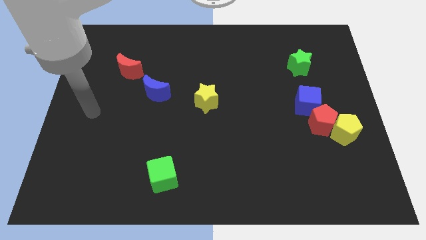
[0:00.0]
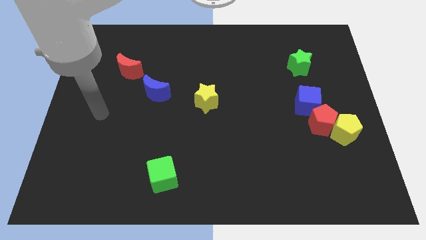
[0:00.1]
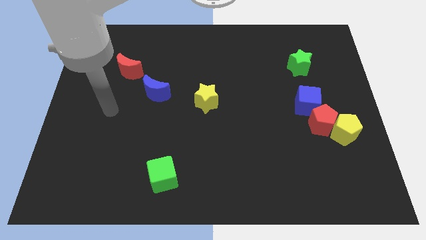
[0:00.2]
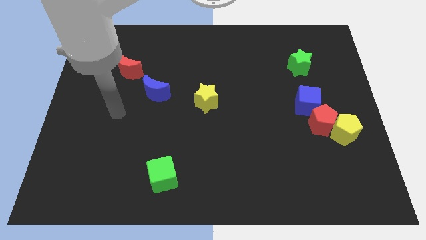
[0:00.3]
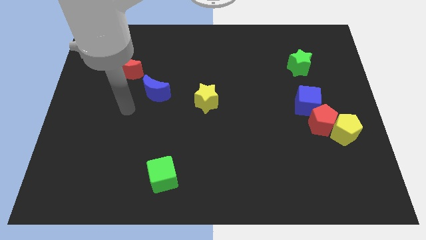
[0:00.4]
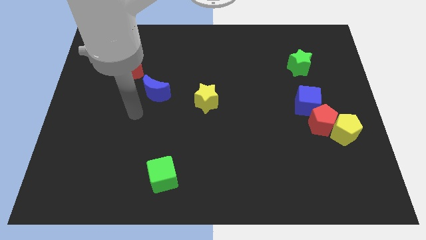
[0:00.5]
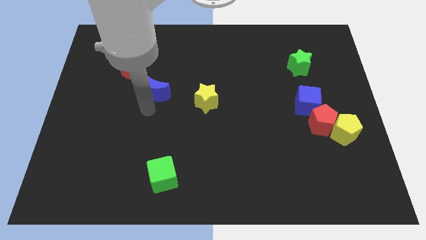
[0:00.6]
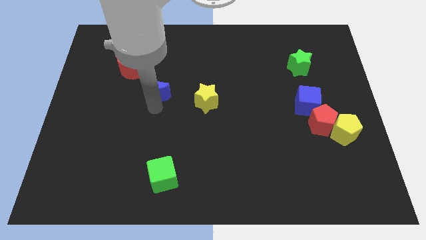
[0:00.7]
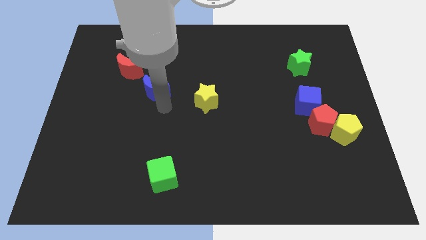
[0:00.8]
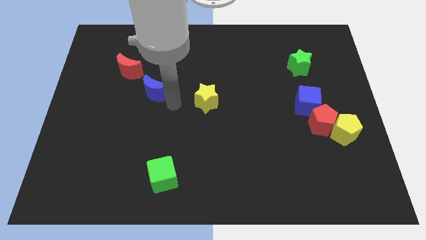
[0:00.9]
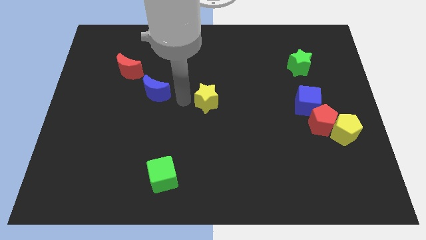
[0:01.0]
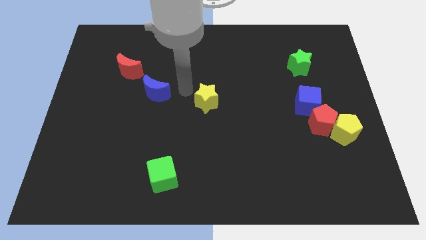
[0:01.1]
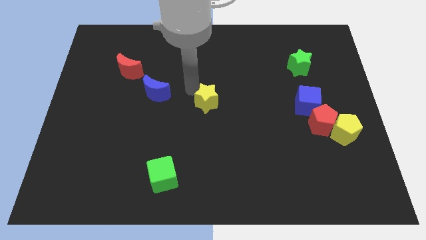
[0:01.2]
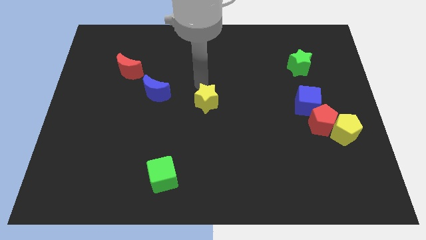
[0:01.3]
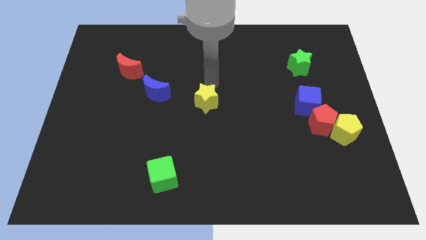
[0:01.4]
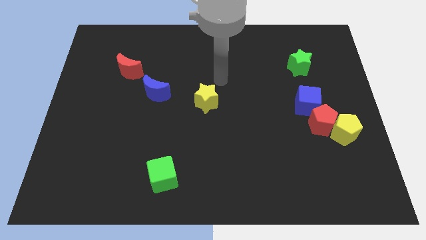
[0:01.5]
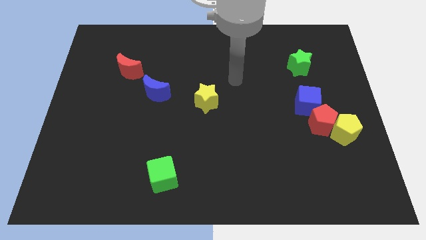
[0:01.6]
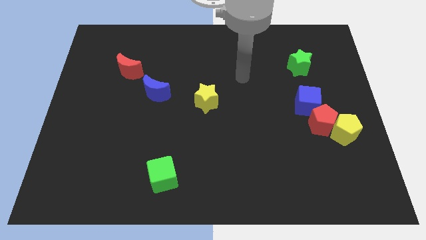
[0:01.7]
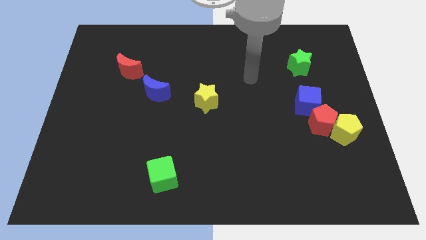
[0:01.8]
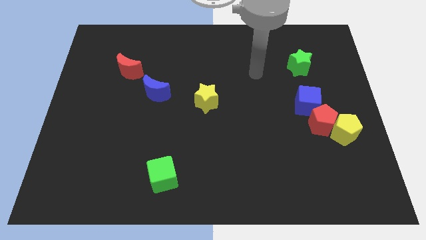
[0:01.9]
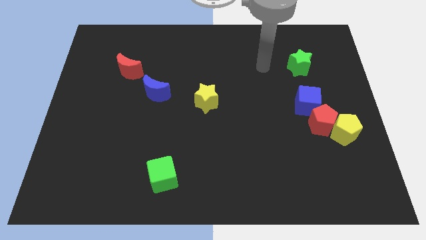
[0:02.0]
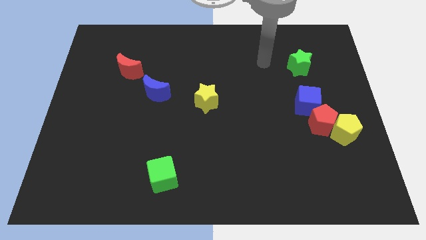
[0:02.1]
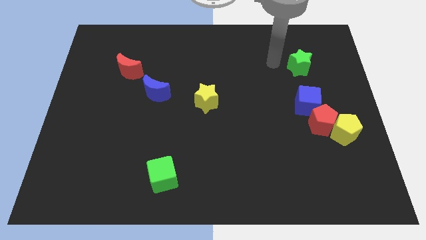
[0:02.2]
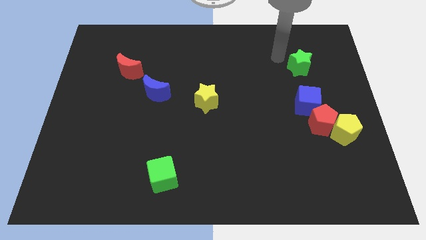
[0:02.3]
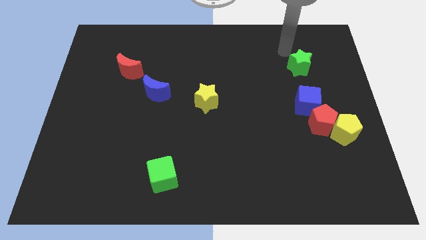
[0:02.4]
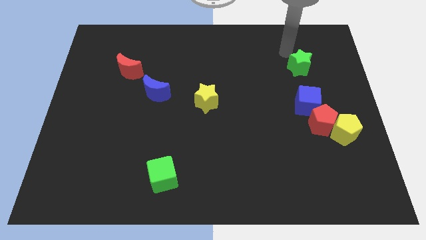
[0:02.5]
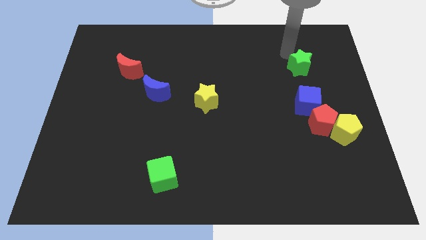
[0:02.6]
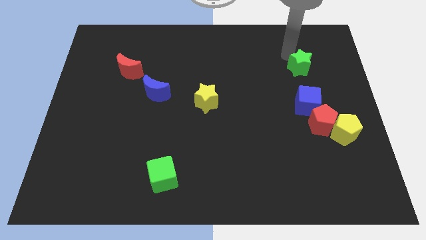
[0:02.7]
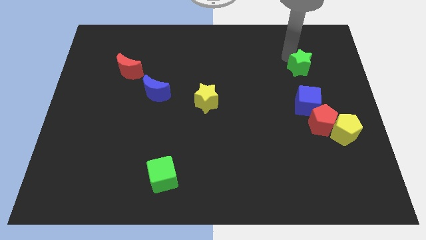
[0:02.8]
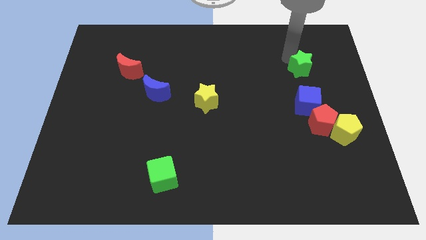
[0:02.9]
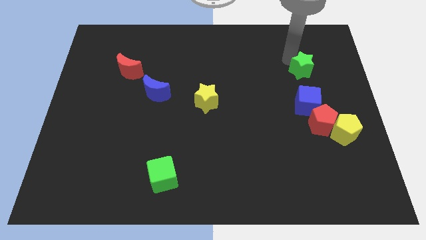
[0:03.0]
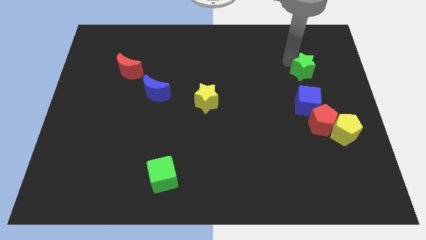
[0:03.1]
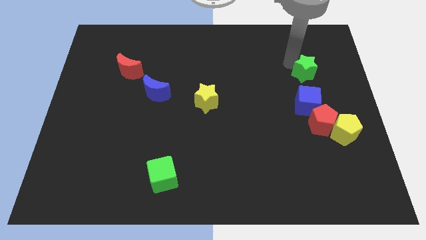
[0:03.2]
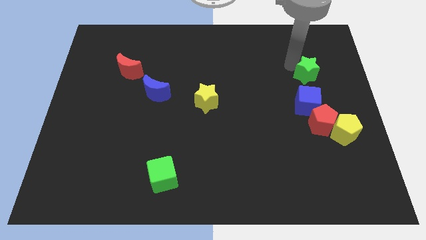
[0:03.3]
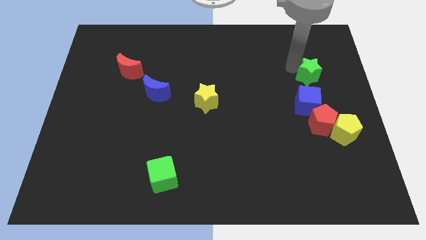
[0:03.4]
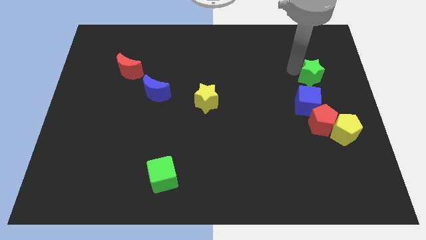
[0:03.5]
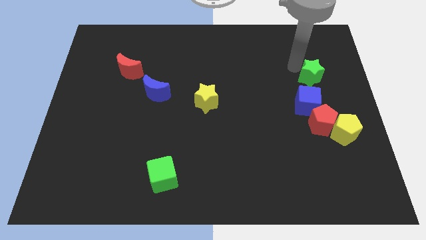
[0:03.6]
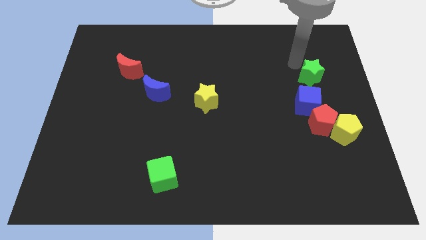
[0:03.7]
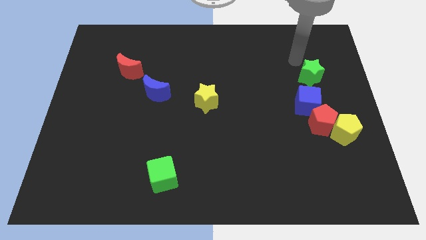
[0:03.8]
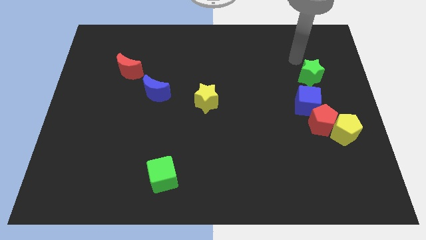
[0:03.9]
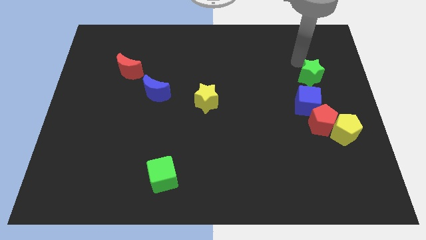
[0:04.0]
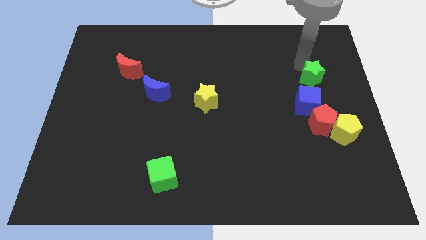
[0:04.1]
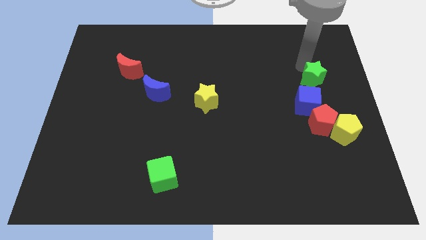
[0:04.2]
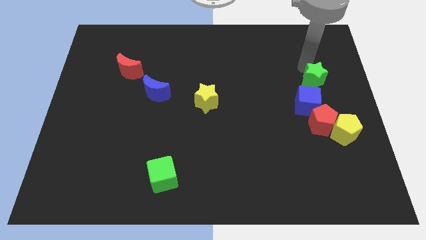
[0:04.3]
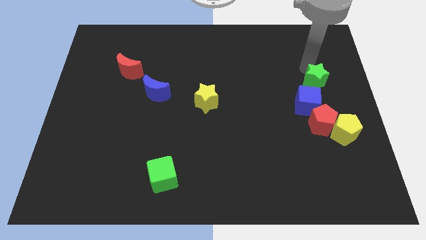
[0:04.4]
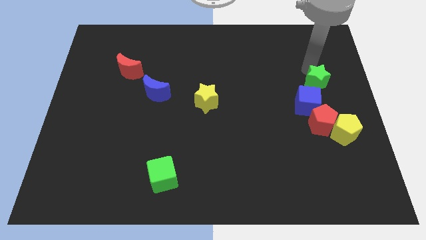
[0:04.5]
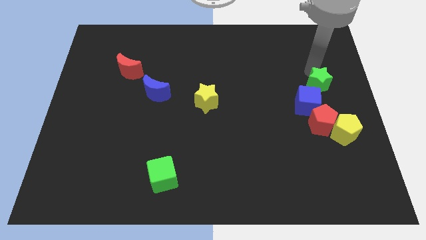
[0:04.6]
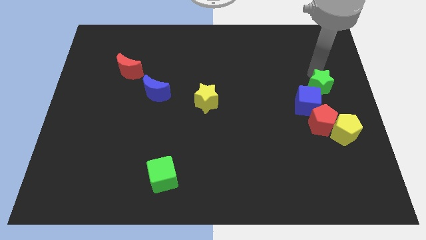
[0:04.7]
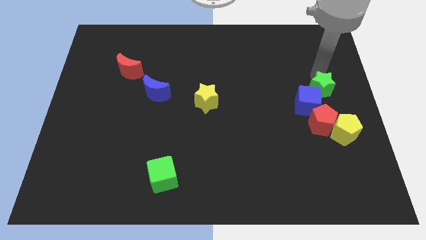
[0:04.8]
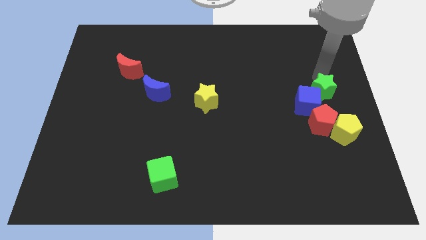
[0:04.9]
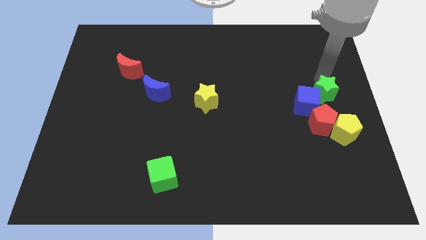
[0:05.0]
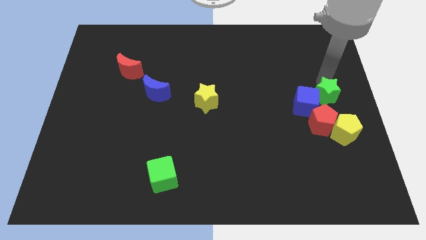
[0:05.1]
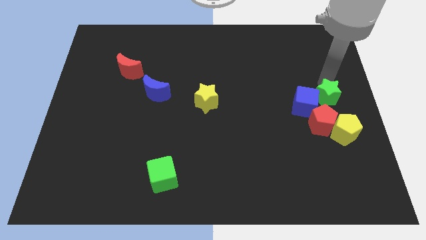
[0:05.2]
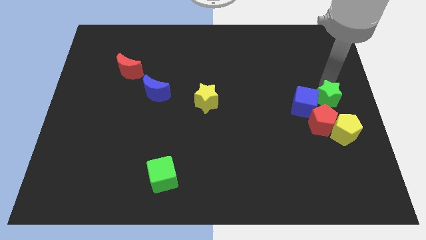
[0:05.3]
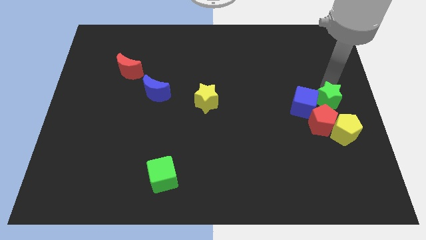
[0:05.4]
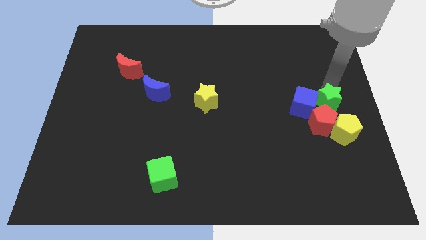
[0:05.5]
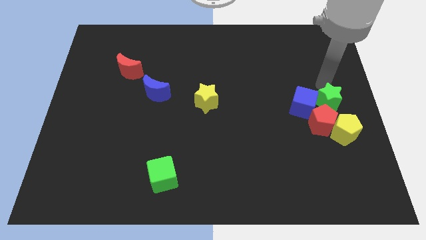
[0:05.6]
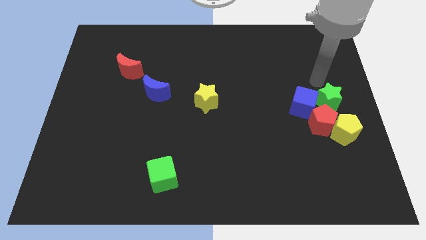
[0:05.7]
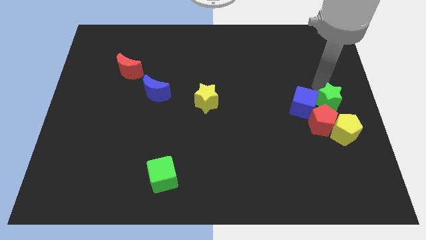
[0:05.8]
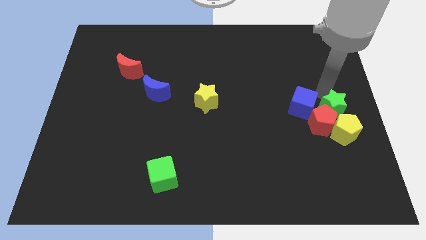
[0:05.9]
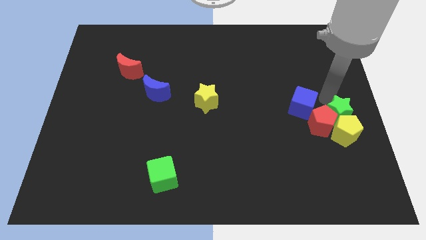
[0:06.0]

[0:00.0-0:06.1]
move the green star towards the yellow pentagon

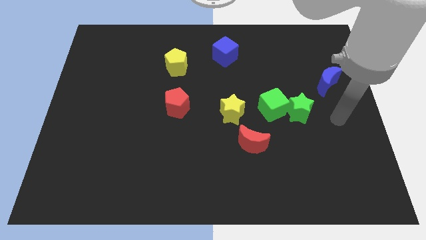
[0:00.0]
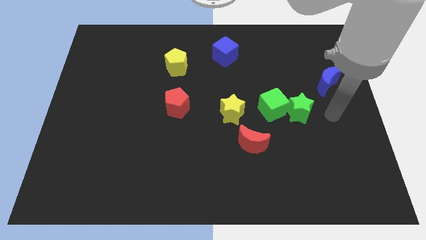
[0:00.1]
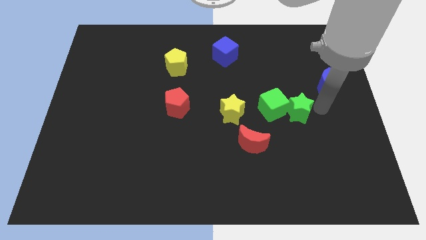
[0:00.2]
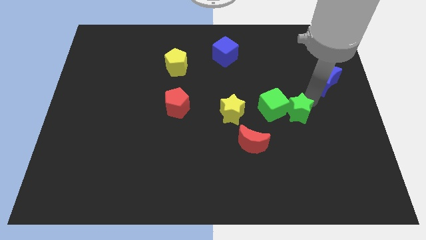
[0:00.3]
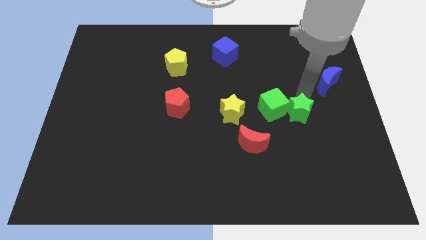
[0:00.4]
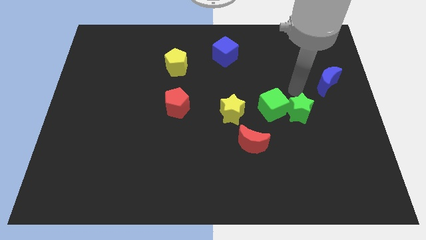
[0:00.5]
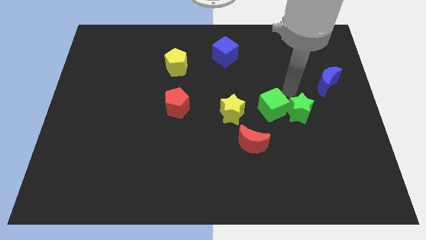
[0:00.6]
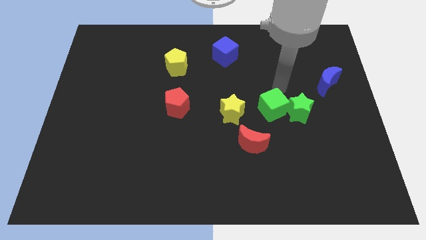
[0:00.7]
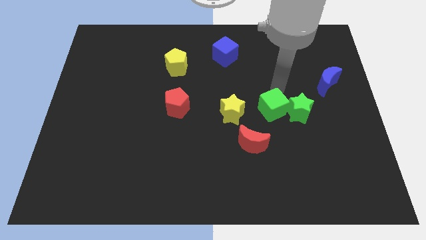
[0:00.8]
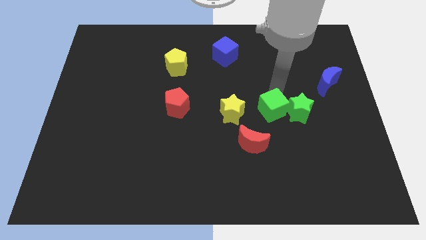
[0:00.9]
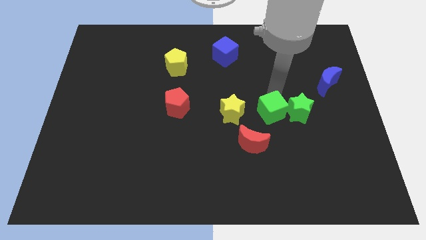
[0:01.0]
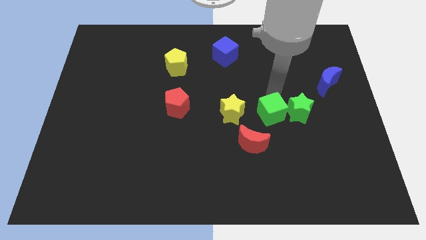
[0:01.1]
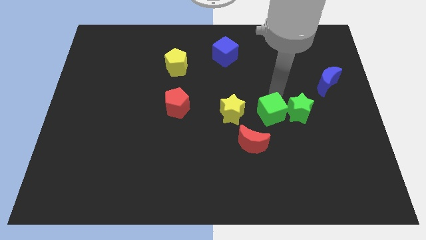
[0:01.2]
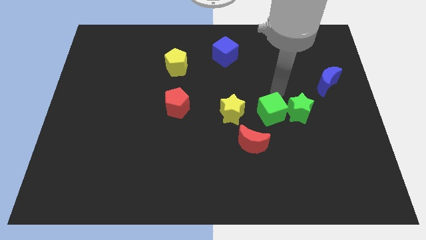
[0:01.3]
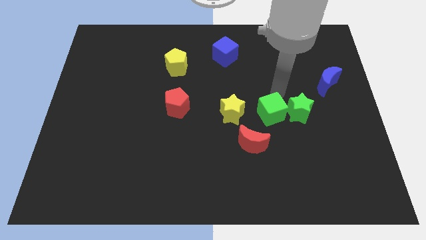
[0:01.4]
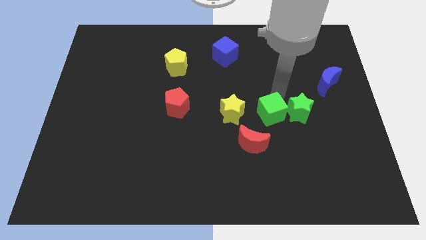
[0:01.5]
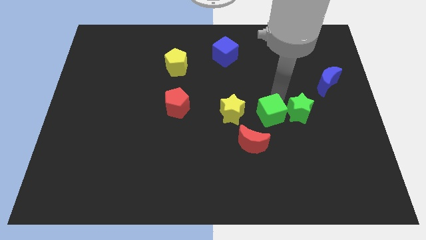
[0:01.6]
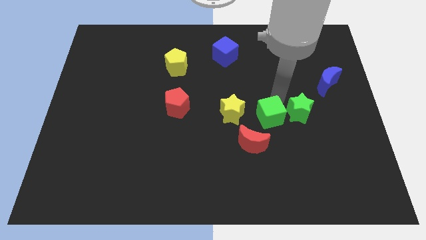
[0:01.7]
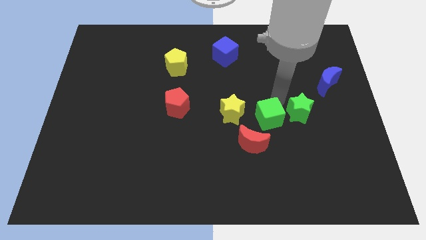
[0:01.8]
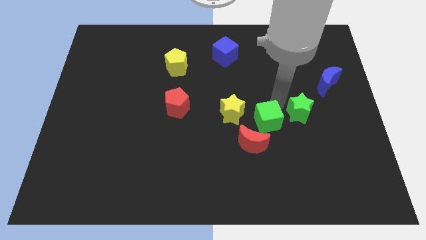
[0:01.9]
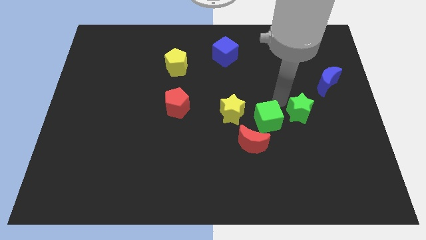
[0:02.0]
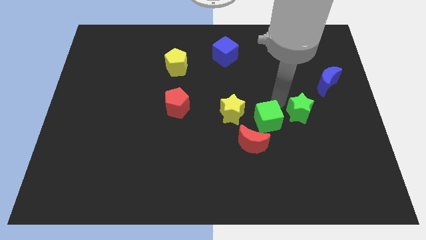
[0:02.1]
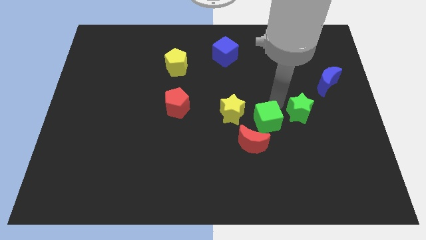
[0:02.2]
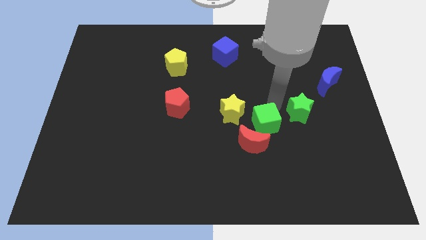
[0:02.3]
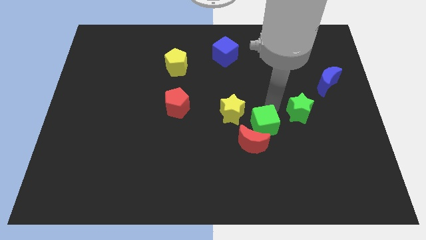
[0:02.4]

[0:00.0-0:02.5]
push the green cube close to the red moon
